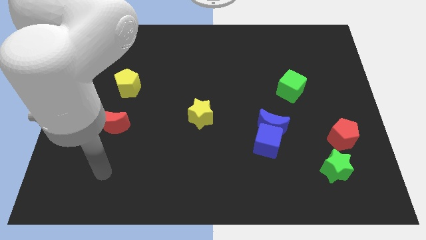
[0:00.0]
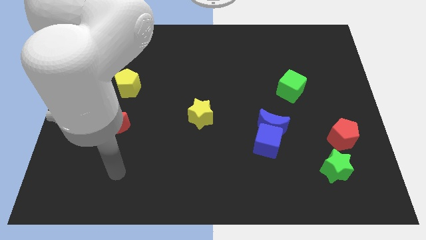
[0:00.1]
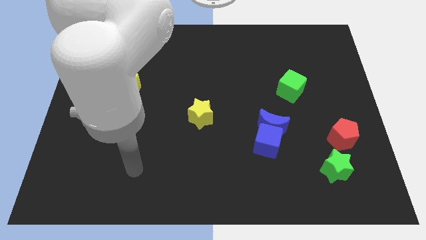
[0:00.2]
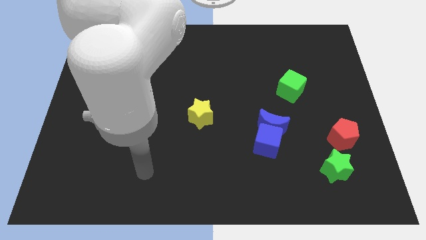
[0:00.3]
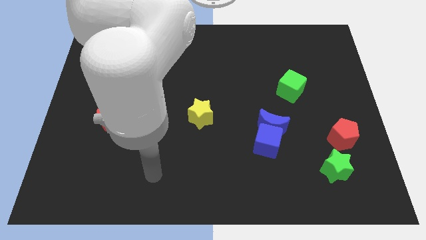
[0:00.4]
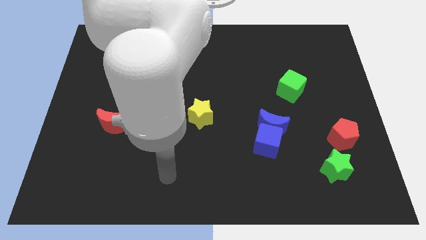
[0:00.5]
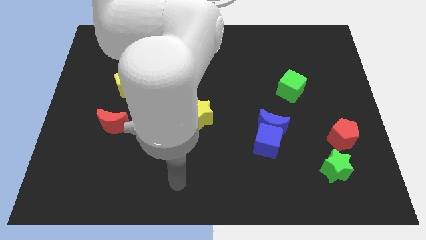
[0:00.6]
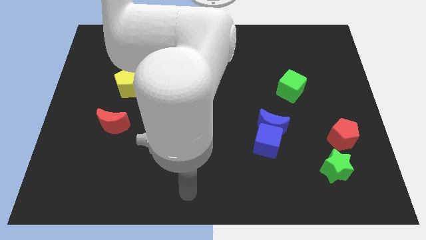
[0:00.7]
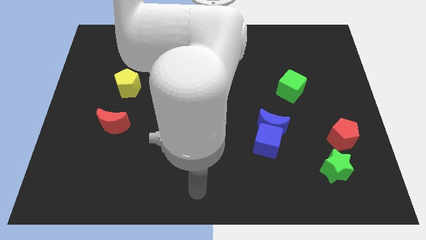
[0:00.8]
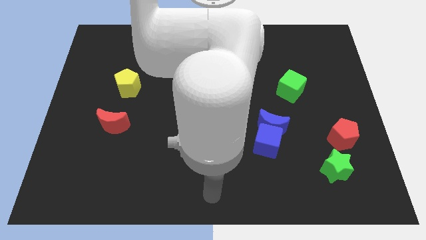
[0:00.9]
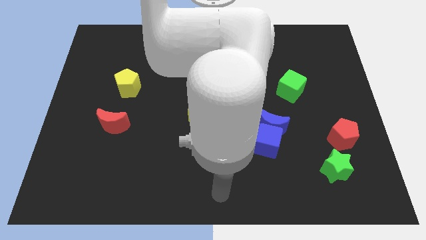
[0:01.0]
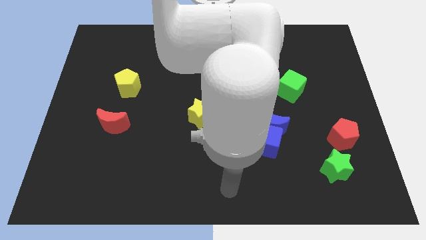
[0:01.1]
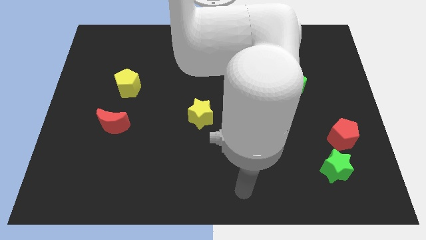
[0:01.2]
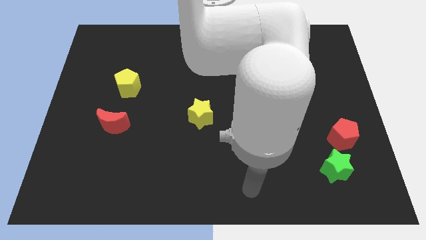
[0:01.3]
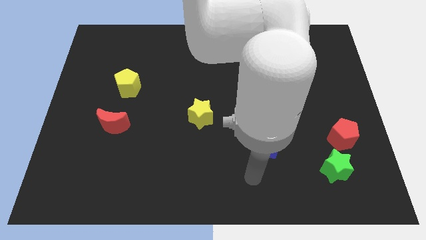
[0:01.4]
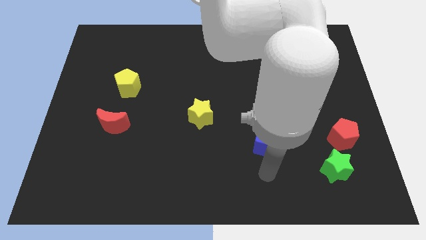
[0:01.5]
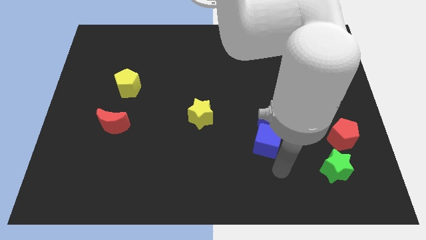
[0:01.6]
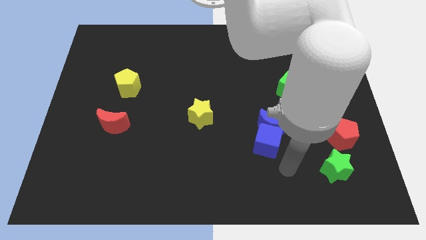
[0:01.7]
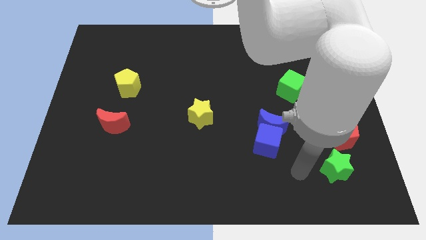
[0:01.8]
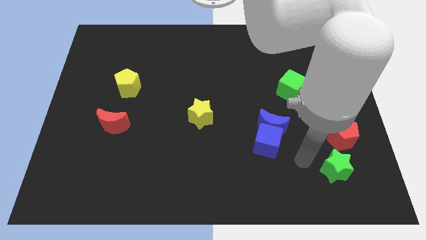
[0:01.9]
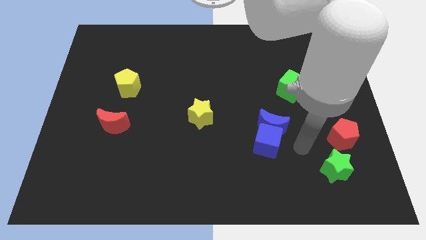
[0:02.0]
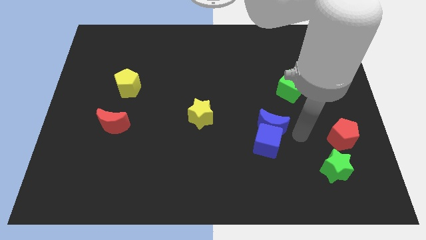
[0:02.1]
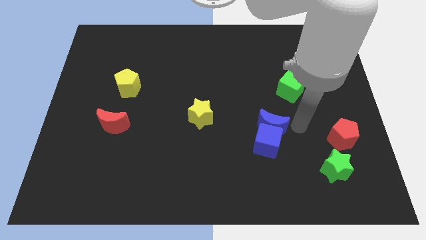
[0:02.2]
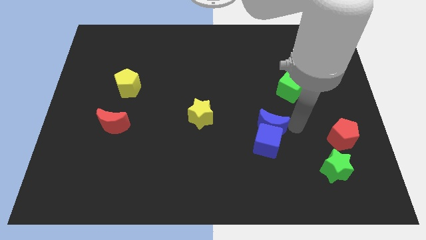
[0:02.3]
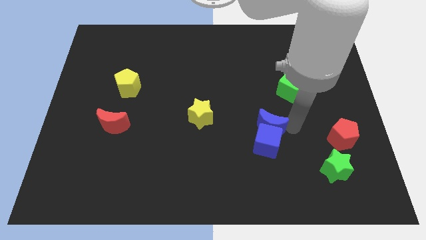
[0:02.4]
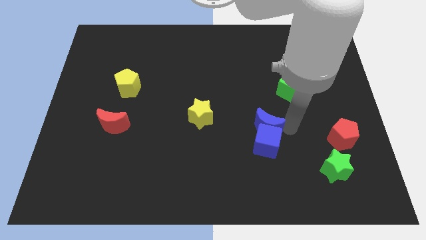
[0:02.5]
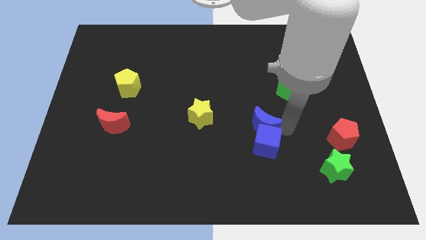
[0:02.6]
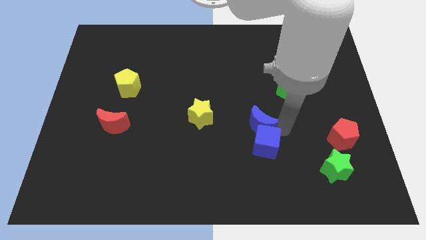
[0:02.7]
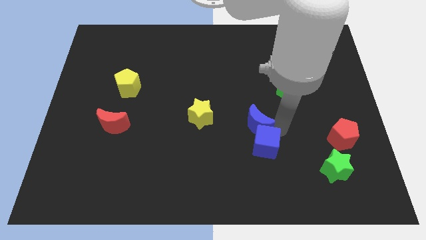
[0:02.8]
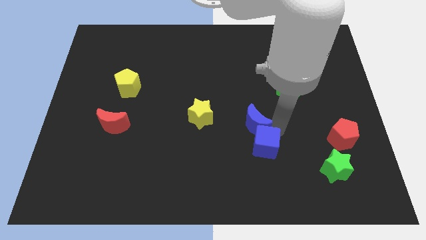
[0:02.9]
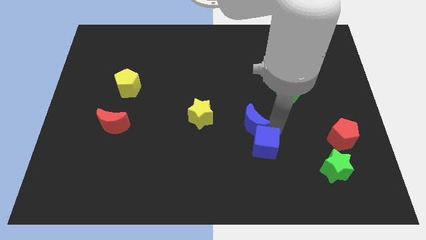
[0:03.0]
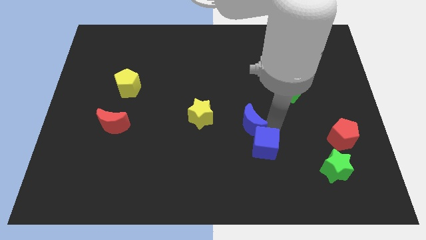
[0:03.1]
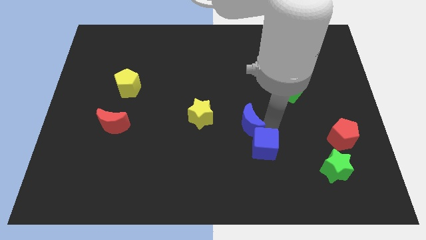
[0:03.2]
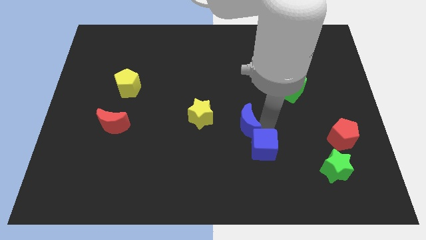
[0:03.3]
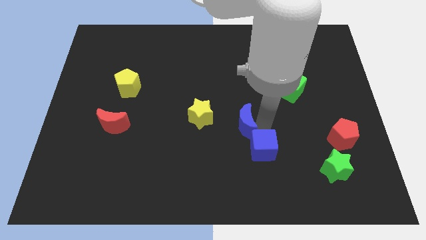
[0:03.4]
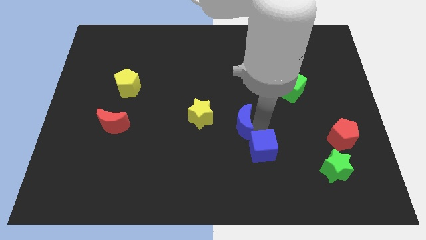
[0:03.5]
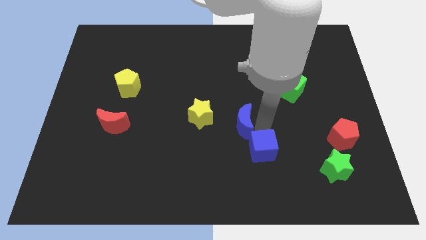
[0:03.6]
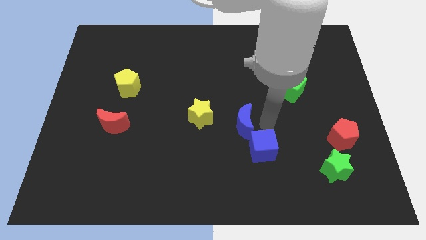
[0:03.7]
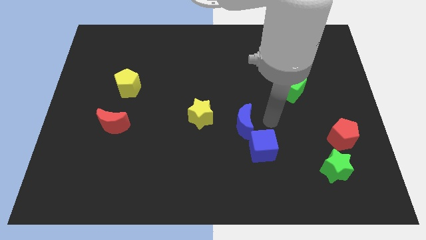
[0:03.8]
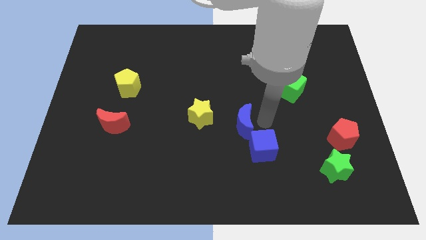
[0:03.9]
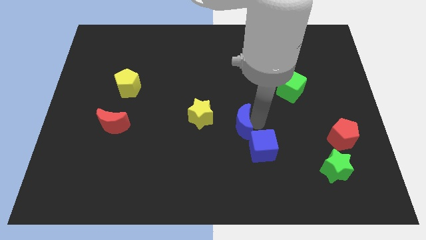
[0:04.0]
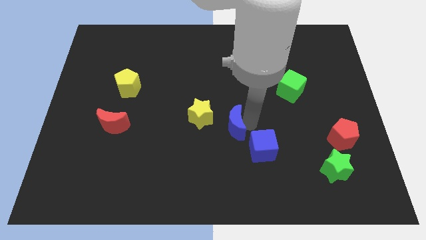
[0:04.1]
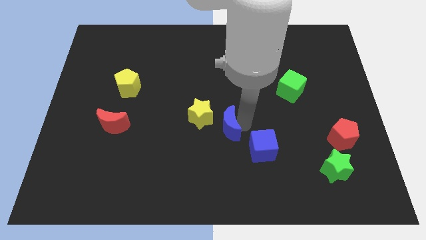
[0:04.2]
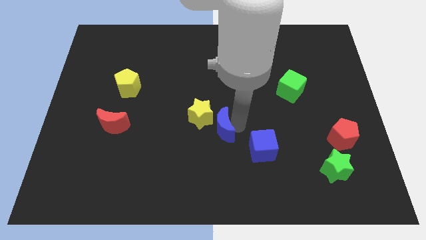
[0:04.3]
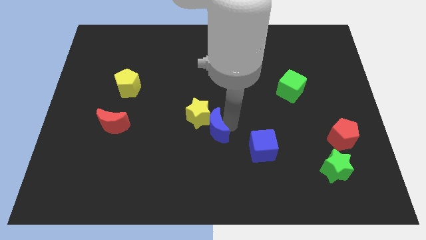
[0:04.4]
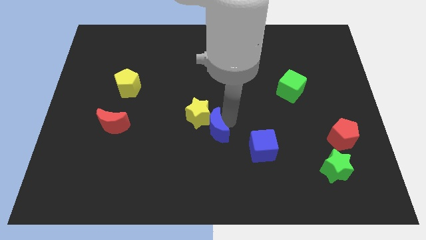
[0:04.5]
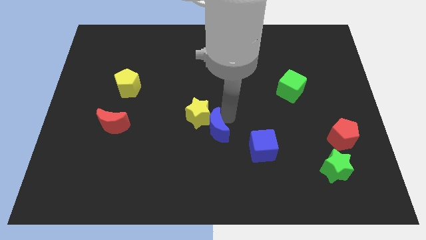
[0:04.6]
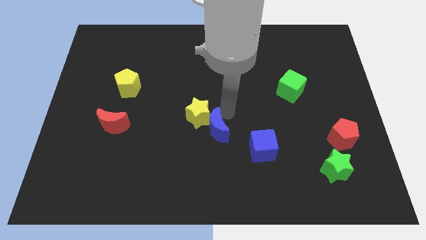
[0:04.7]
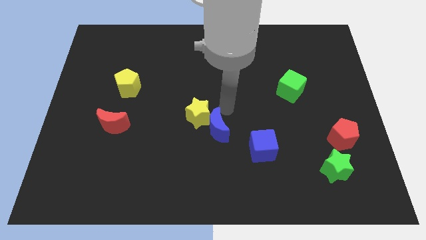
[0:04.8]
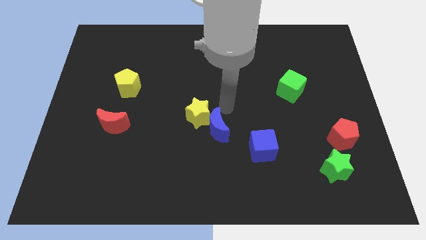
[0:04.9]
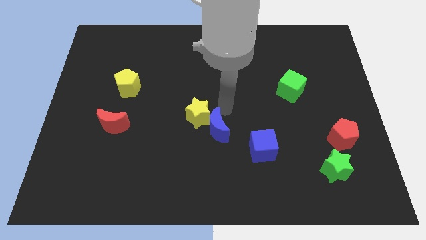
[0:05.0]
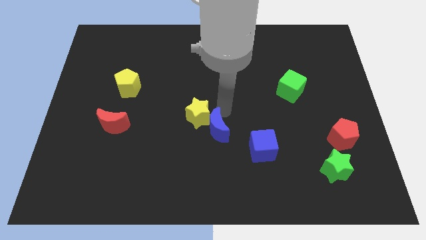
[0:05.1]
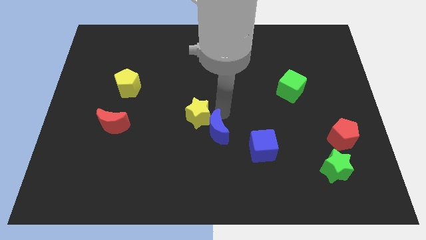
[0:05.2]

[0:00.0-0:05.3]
move the blue moon downwards and to the left diagonally a little bit

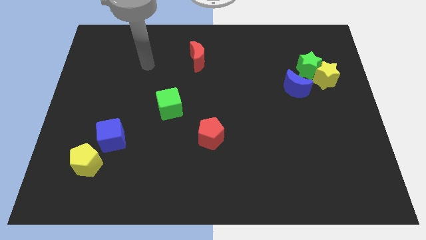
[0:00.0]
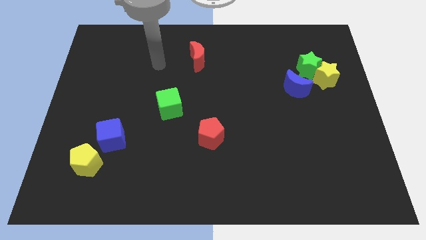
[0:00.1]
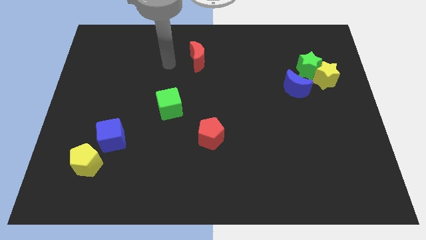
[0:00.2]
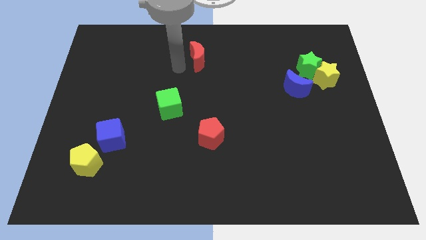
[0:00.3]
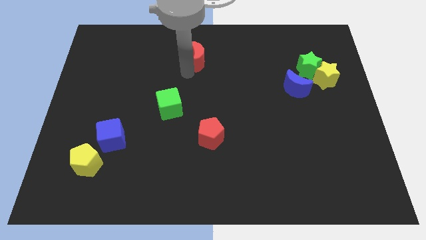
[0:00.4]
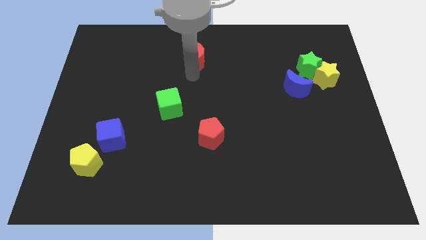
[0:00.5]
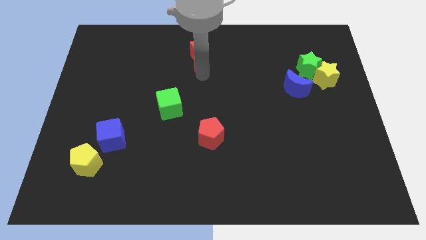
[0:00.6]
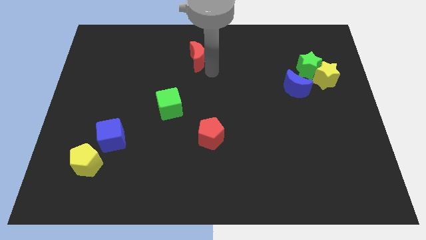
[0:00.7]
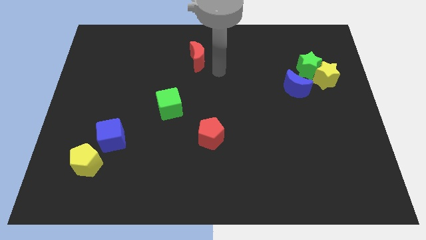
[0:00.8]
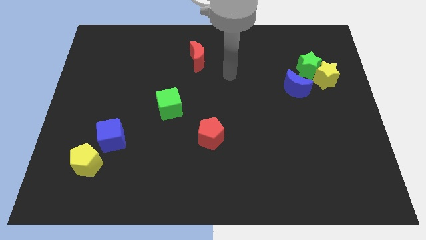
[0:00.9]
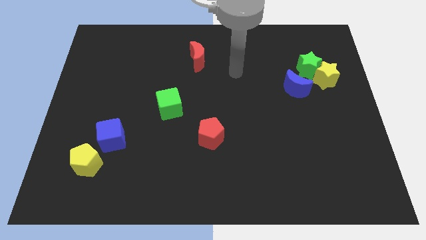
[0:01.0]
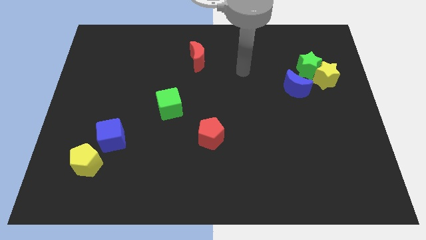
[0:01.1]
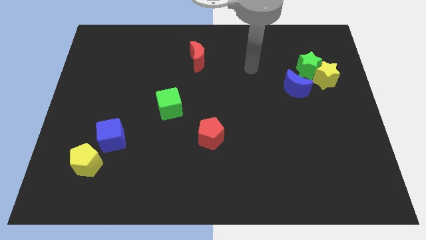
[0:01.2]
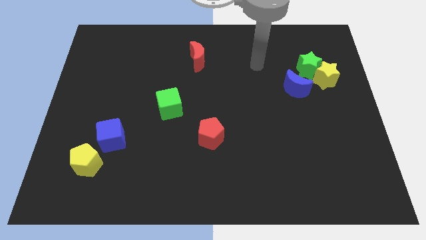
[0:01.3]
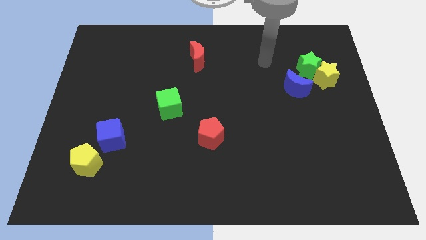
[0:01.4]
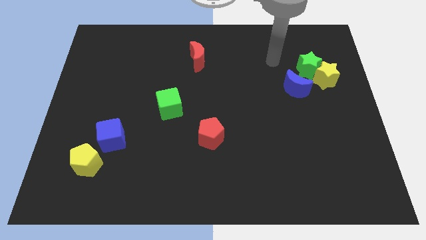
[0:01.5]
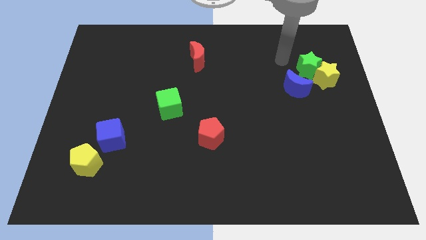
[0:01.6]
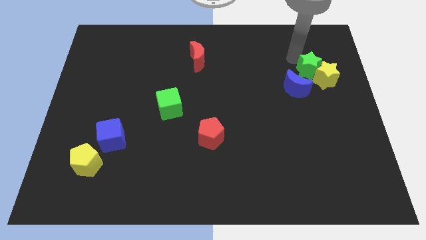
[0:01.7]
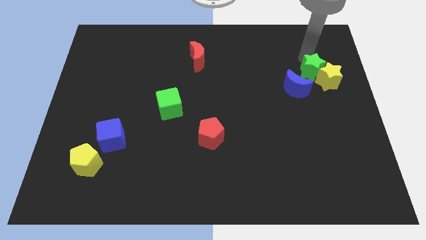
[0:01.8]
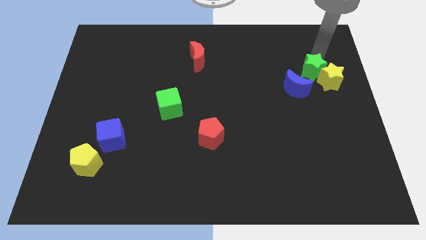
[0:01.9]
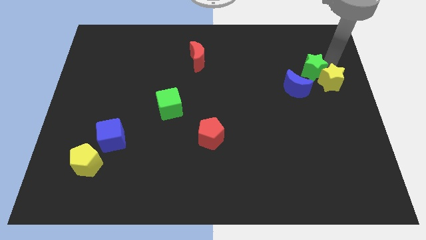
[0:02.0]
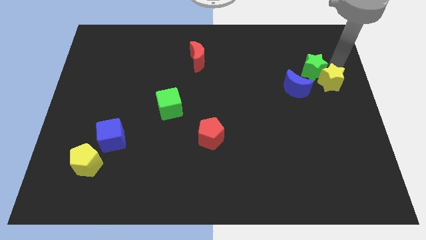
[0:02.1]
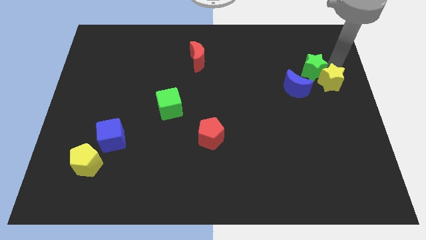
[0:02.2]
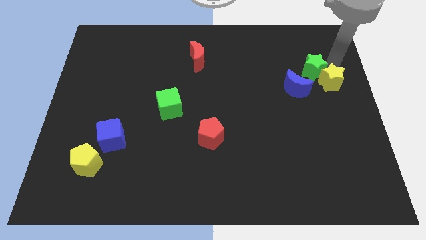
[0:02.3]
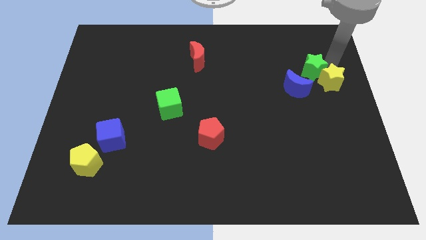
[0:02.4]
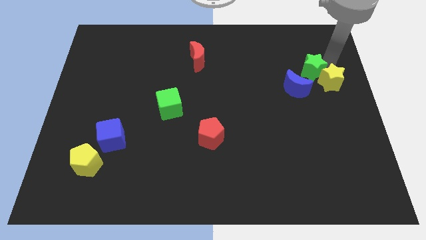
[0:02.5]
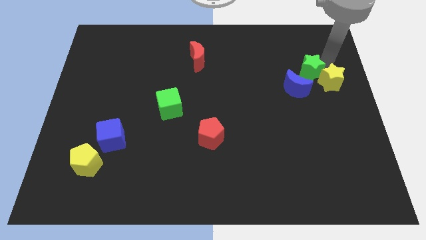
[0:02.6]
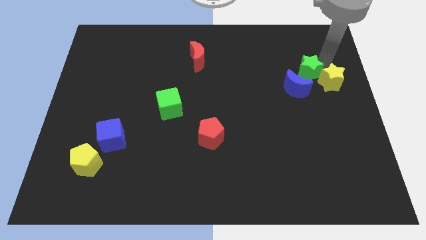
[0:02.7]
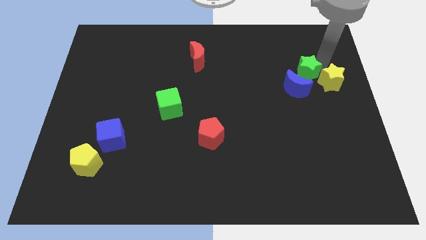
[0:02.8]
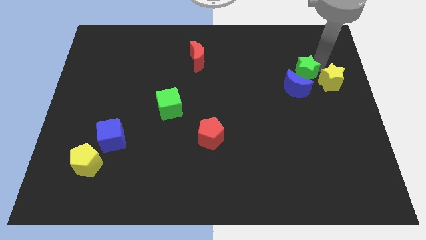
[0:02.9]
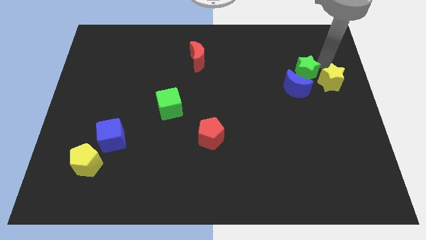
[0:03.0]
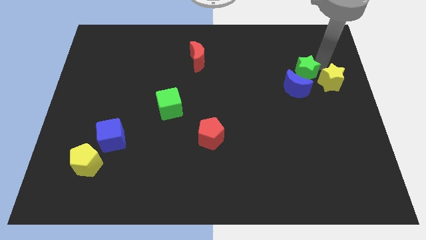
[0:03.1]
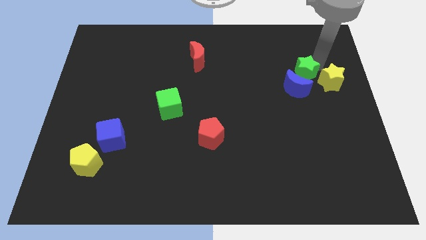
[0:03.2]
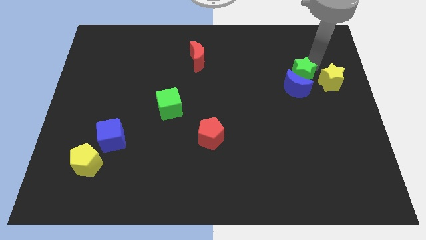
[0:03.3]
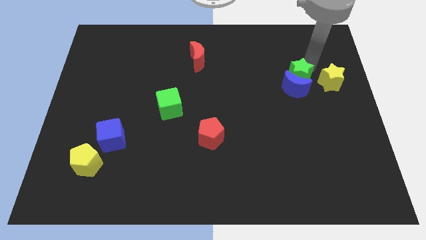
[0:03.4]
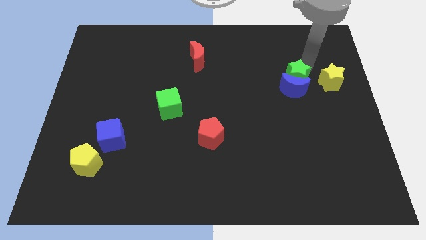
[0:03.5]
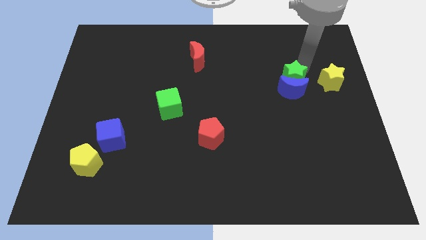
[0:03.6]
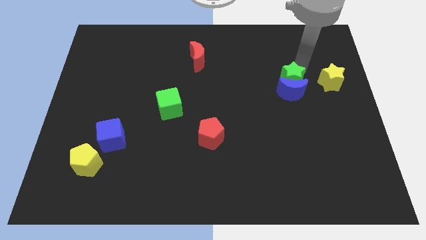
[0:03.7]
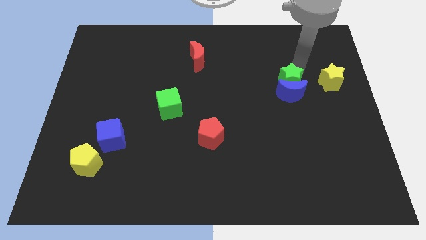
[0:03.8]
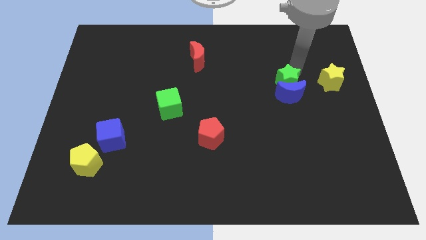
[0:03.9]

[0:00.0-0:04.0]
slide the green star downwards and then left somewhat
